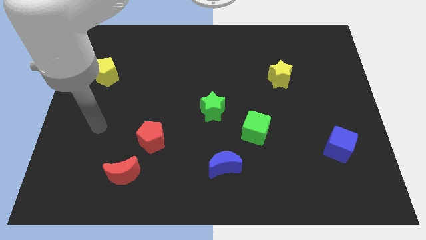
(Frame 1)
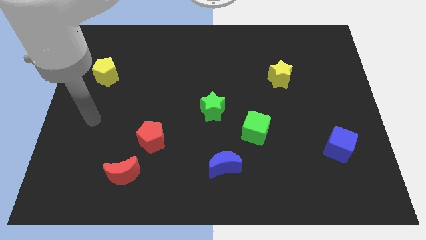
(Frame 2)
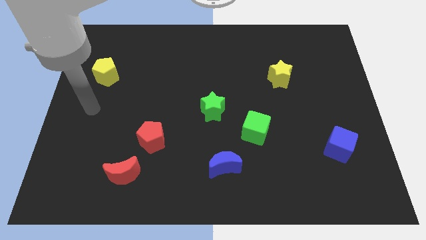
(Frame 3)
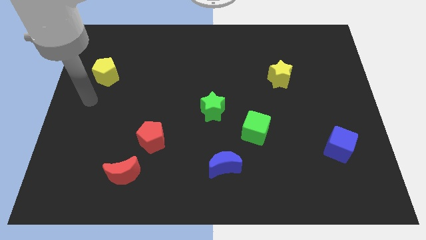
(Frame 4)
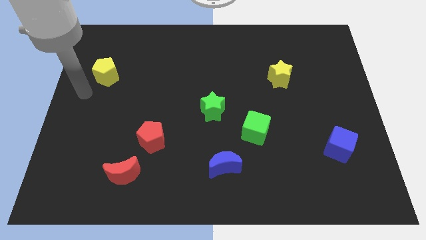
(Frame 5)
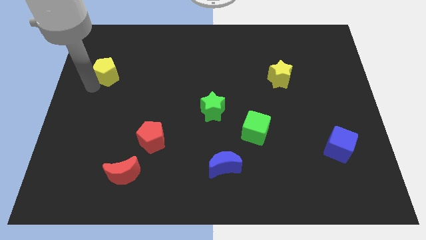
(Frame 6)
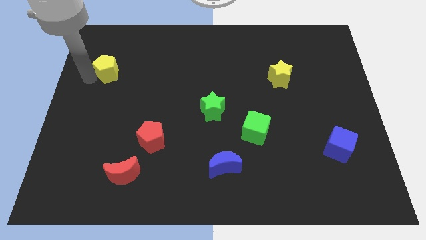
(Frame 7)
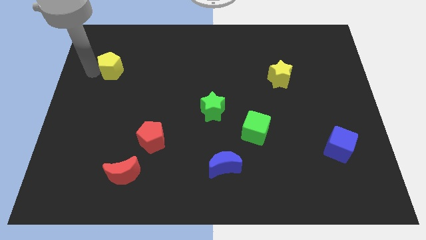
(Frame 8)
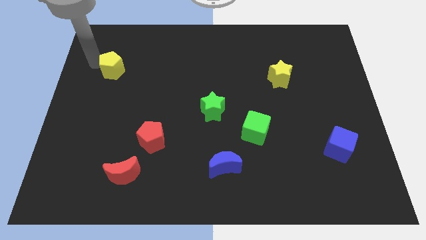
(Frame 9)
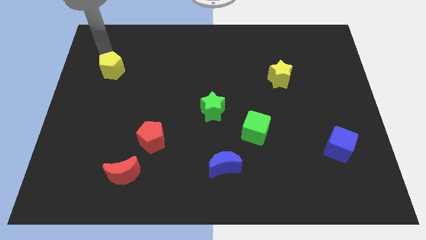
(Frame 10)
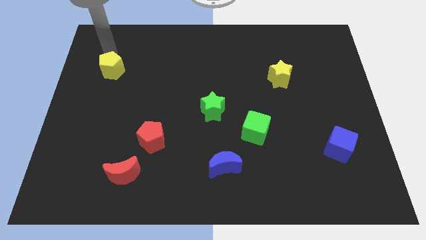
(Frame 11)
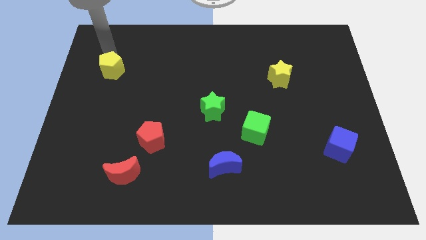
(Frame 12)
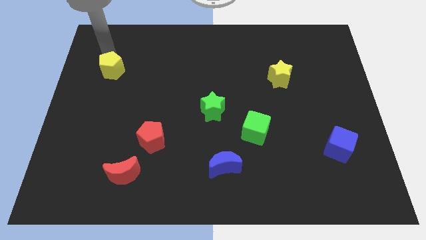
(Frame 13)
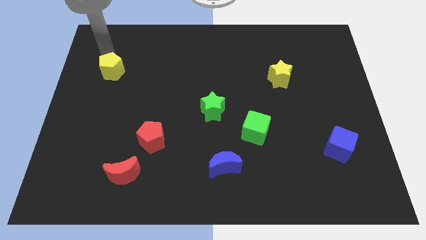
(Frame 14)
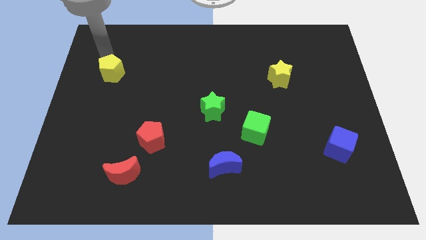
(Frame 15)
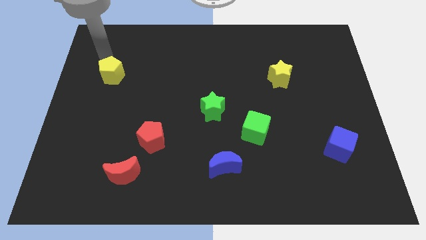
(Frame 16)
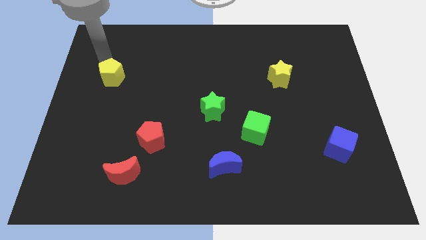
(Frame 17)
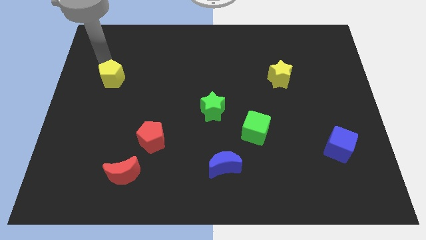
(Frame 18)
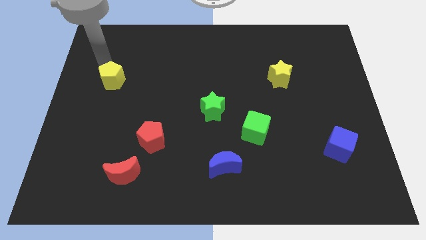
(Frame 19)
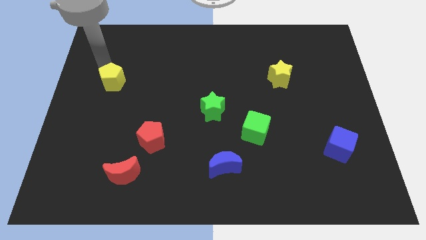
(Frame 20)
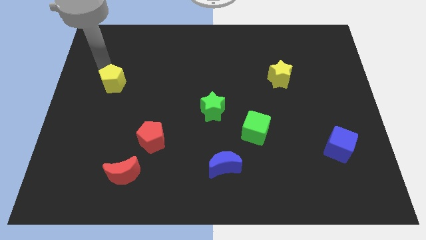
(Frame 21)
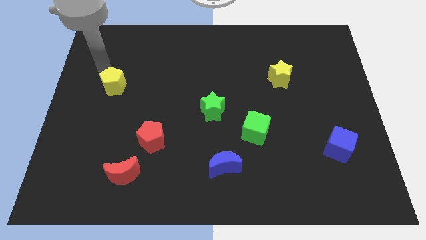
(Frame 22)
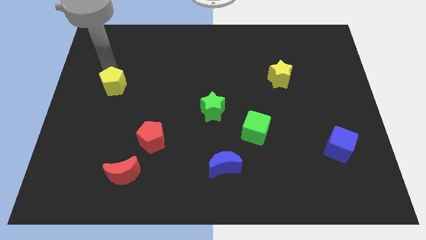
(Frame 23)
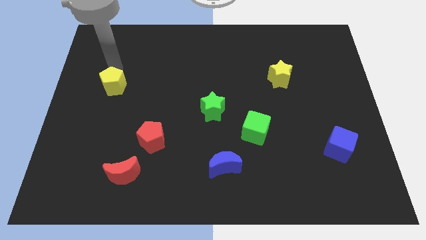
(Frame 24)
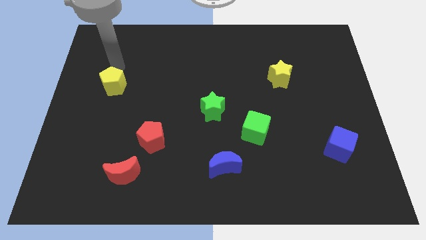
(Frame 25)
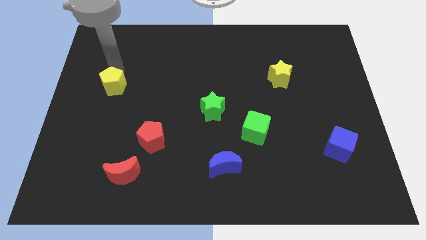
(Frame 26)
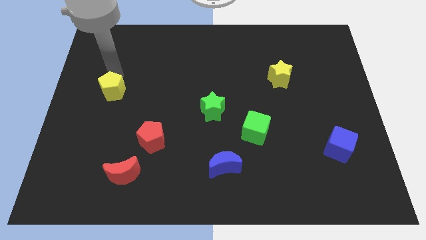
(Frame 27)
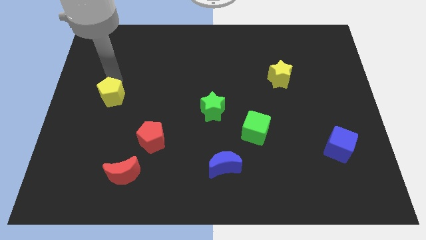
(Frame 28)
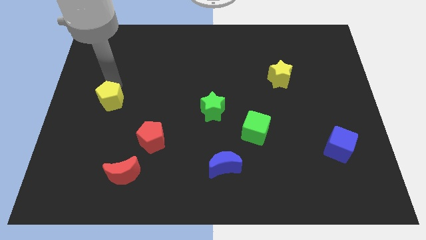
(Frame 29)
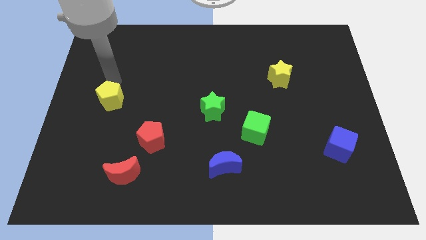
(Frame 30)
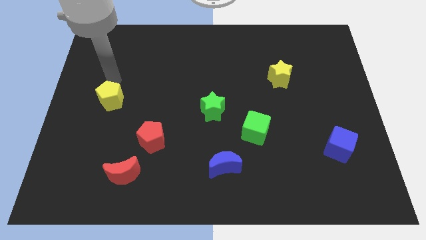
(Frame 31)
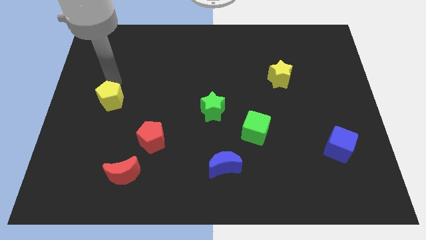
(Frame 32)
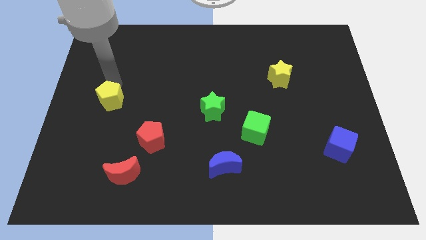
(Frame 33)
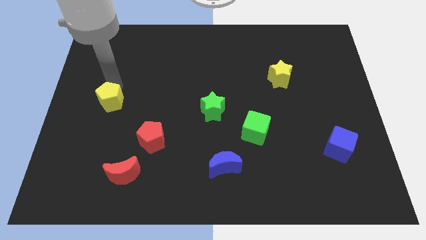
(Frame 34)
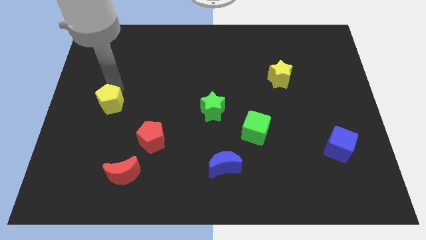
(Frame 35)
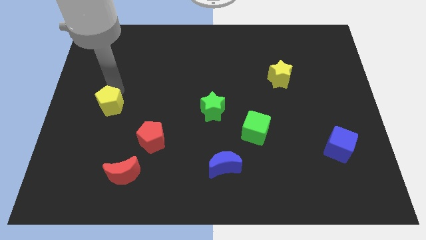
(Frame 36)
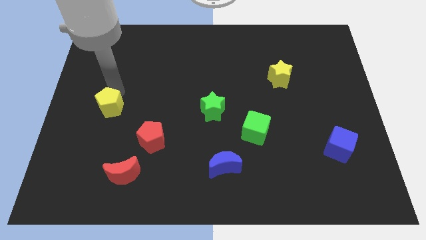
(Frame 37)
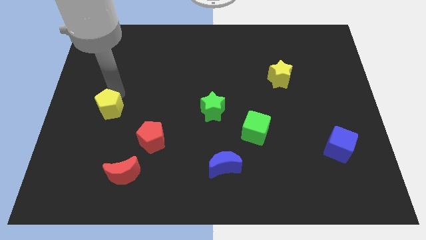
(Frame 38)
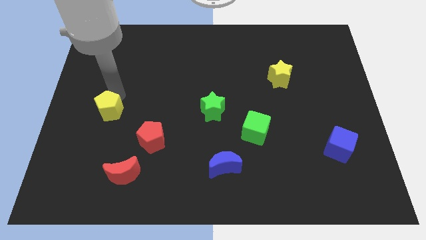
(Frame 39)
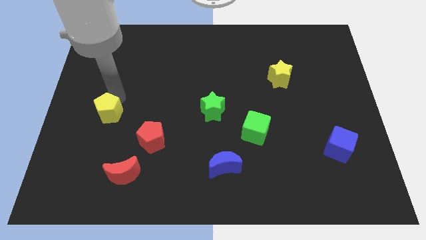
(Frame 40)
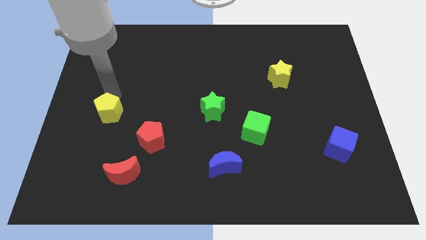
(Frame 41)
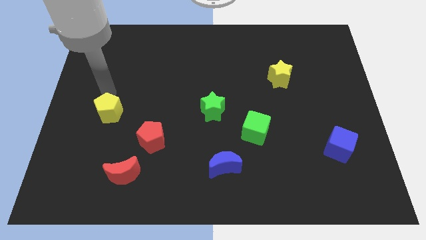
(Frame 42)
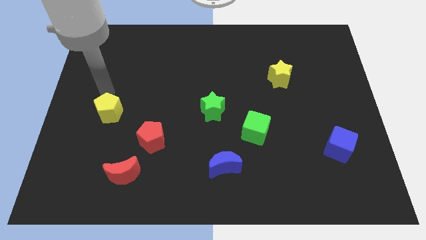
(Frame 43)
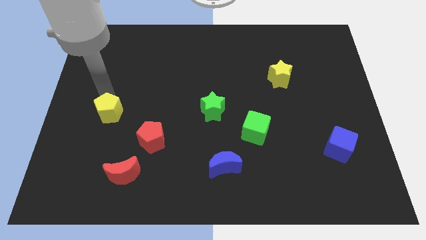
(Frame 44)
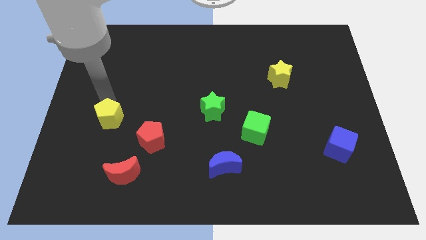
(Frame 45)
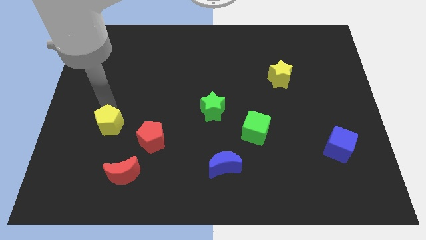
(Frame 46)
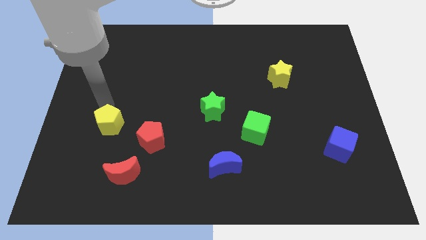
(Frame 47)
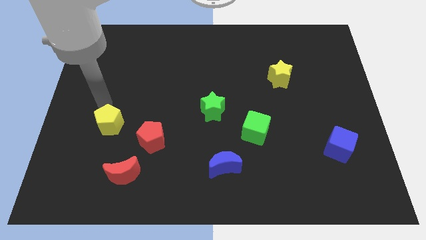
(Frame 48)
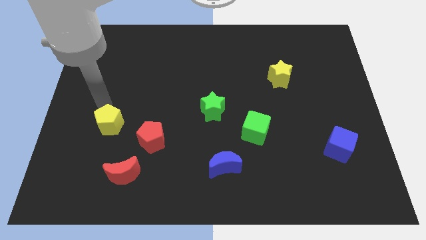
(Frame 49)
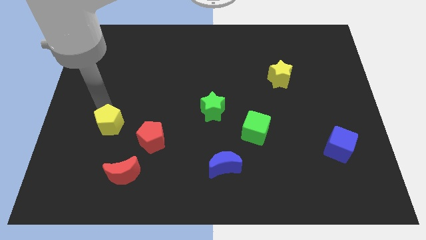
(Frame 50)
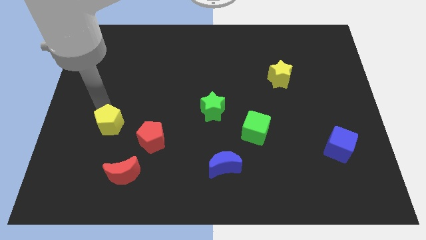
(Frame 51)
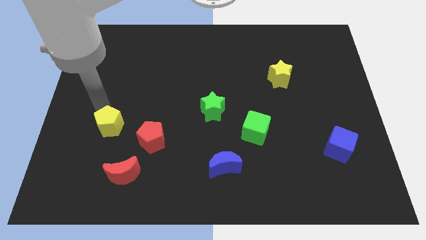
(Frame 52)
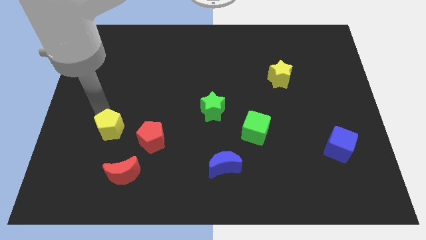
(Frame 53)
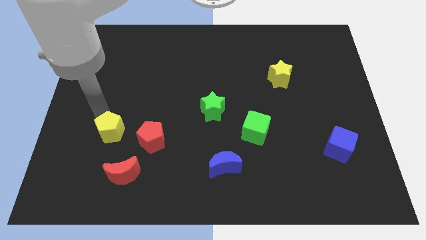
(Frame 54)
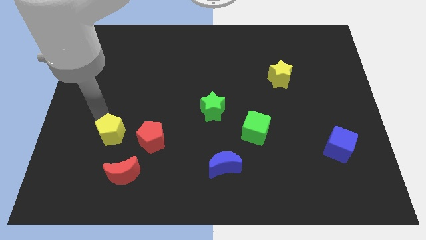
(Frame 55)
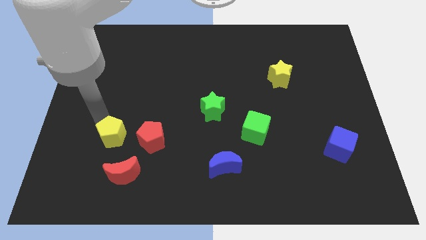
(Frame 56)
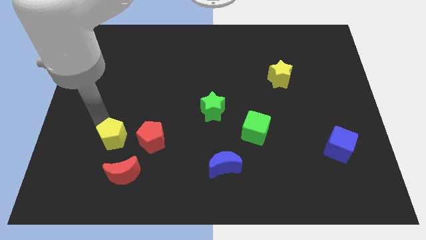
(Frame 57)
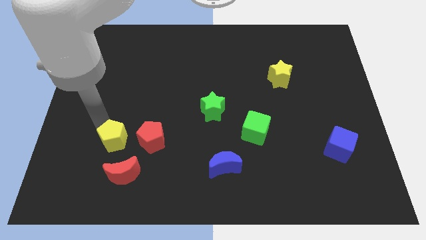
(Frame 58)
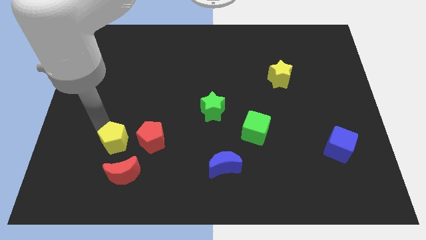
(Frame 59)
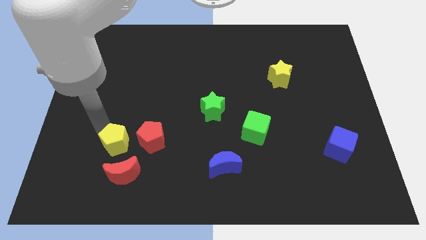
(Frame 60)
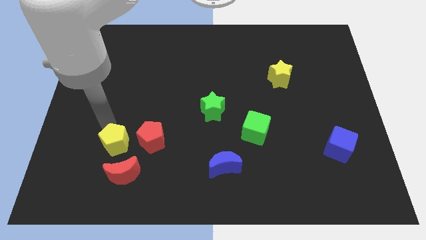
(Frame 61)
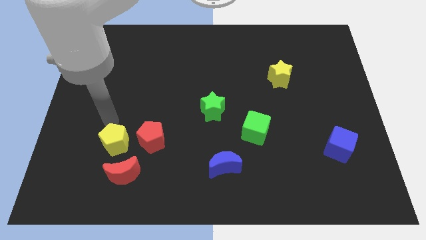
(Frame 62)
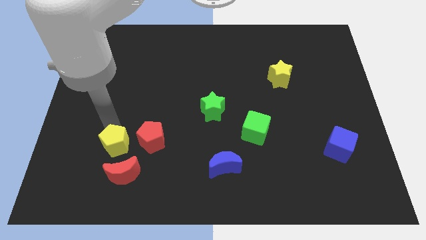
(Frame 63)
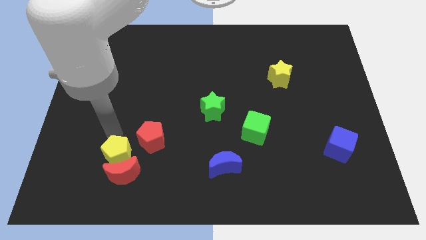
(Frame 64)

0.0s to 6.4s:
put the yellow pentagon next to the red moon
